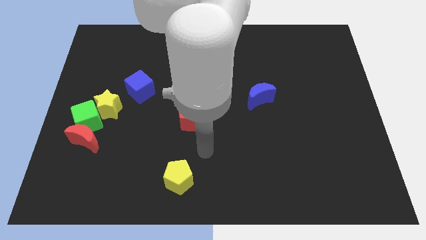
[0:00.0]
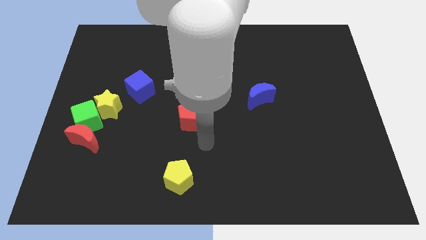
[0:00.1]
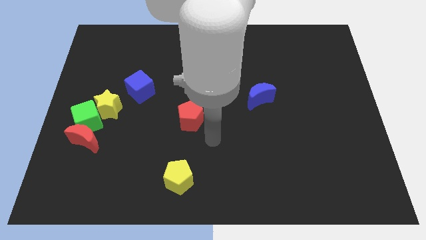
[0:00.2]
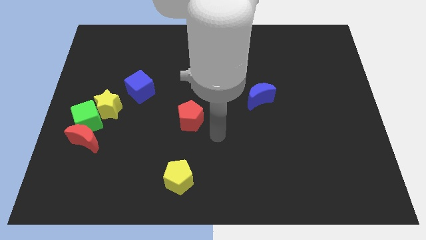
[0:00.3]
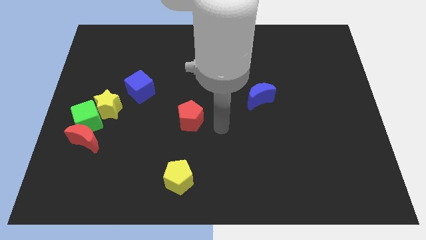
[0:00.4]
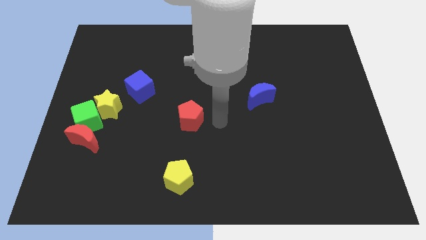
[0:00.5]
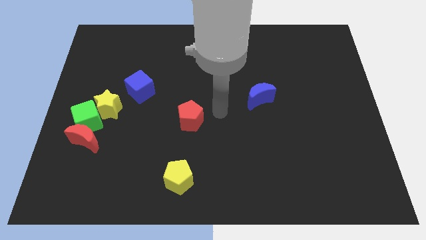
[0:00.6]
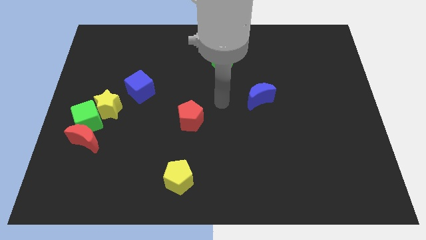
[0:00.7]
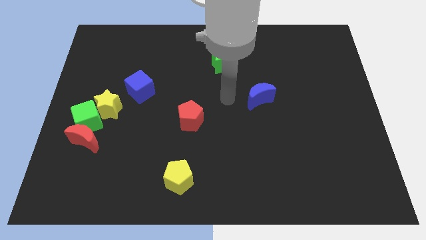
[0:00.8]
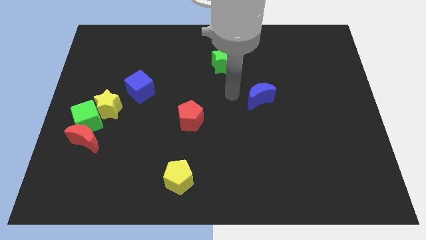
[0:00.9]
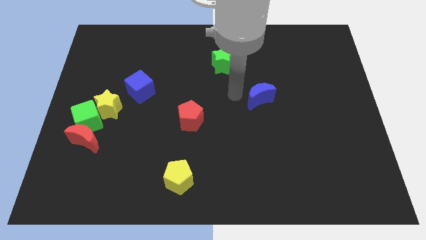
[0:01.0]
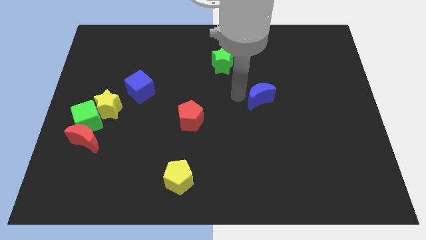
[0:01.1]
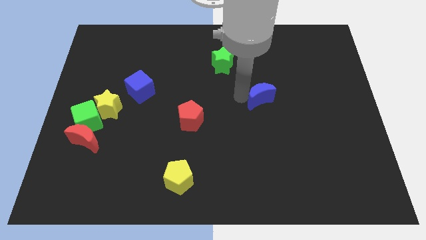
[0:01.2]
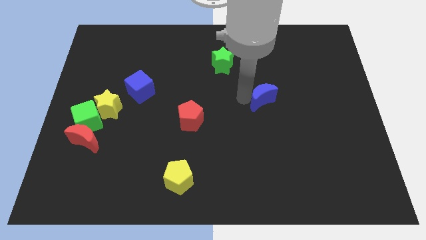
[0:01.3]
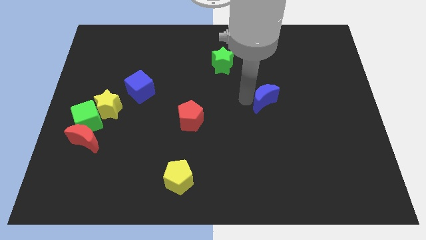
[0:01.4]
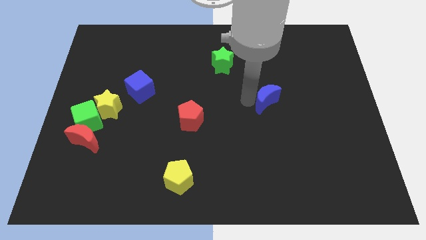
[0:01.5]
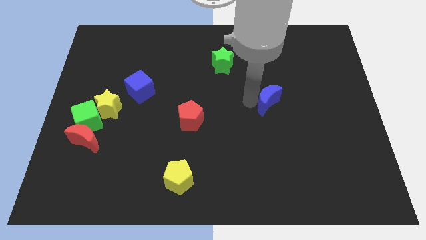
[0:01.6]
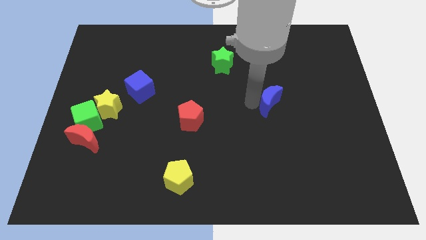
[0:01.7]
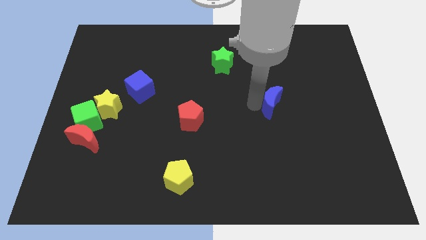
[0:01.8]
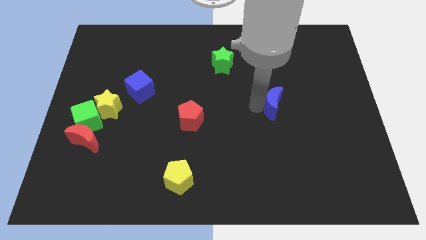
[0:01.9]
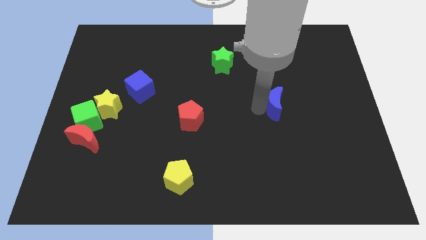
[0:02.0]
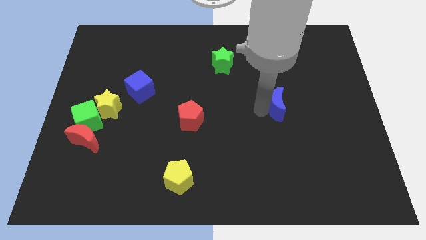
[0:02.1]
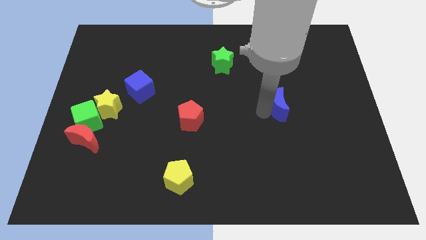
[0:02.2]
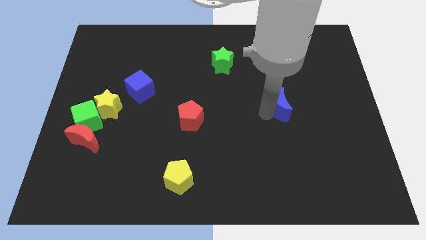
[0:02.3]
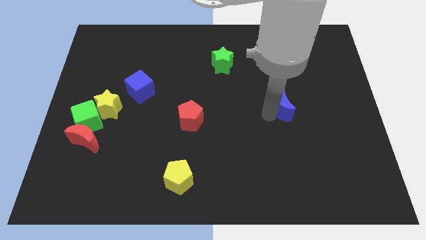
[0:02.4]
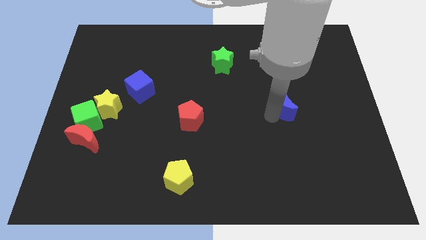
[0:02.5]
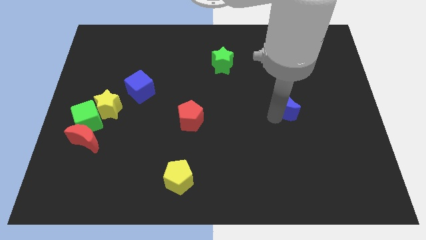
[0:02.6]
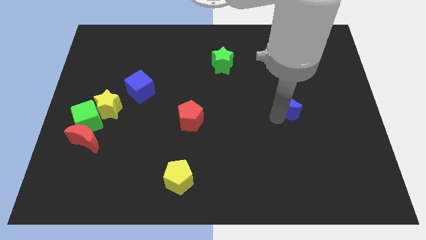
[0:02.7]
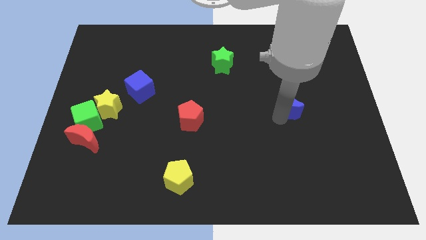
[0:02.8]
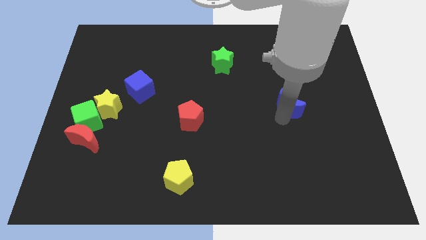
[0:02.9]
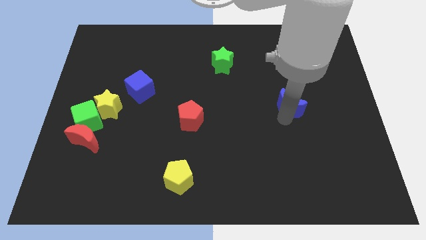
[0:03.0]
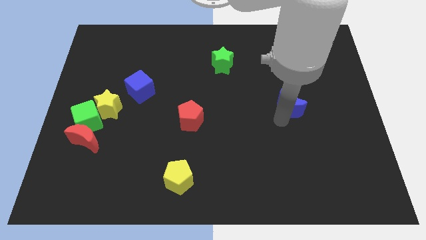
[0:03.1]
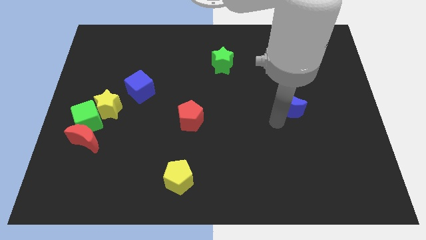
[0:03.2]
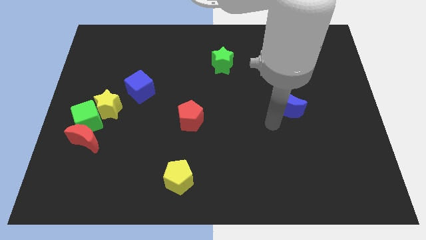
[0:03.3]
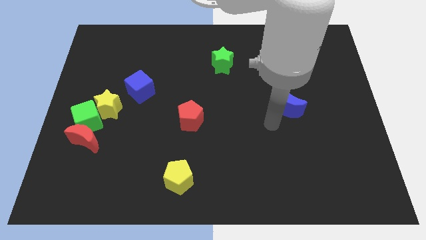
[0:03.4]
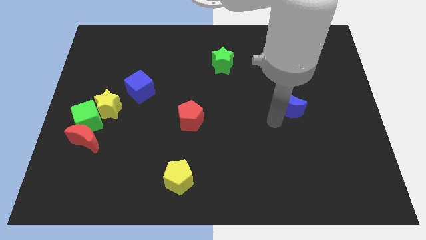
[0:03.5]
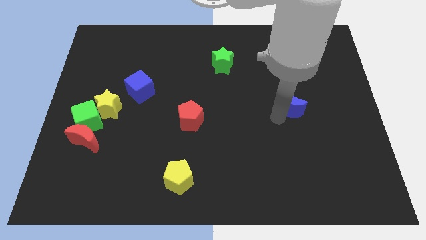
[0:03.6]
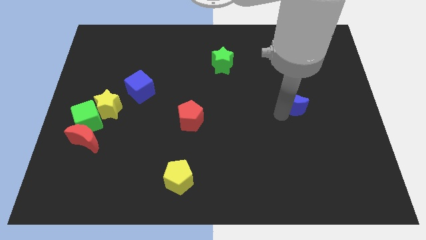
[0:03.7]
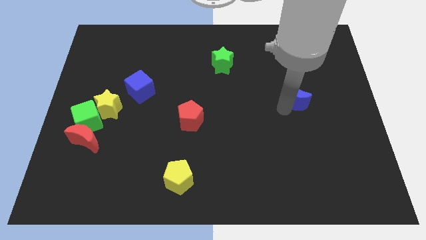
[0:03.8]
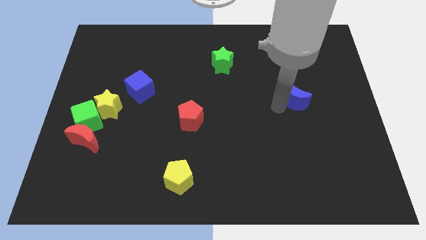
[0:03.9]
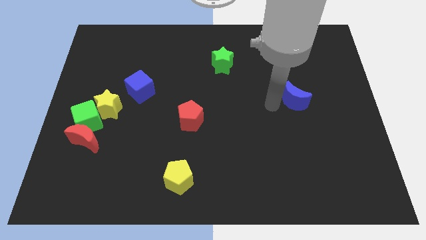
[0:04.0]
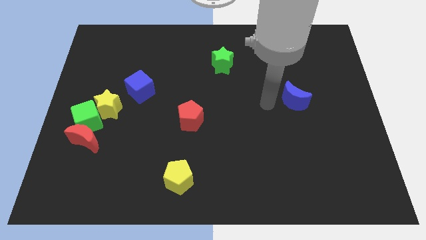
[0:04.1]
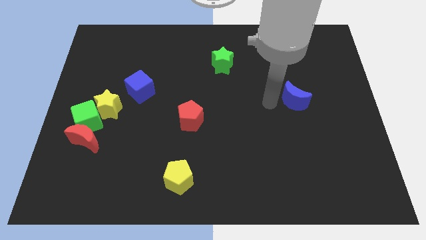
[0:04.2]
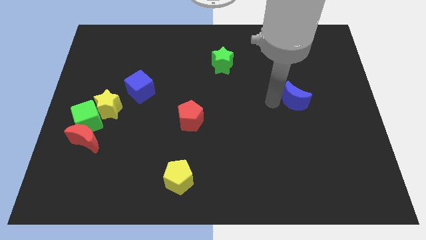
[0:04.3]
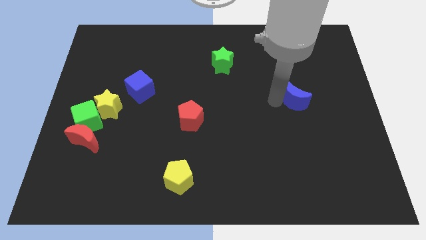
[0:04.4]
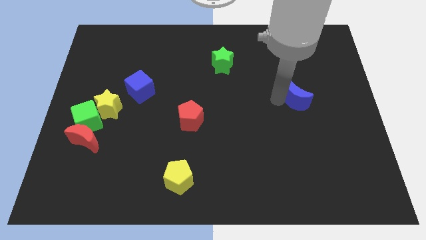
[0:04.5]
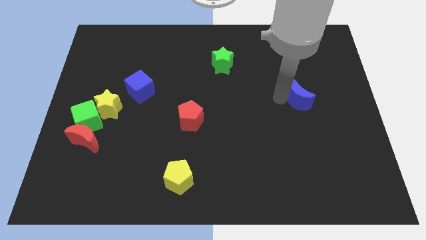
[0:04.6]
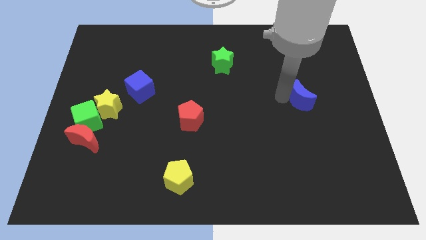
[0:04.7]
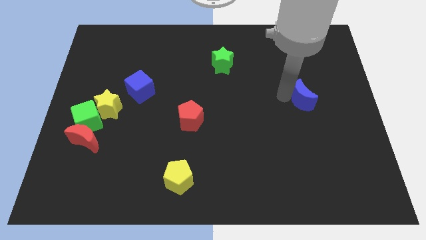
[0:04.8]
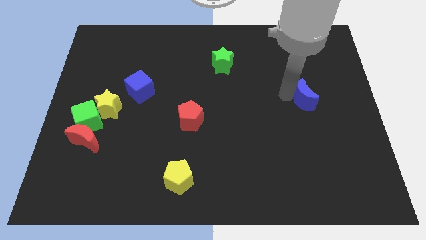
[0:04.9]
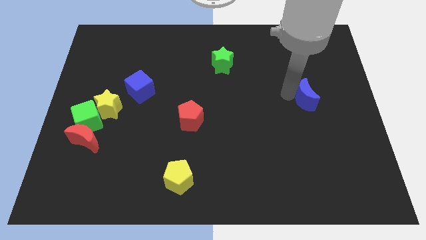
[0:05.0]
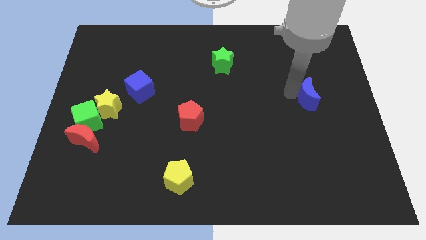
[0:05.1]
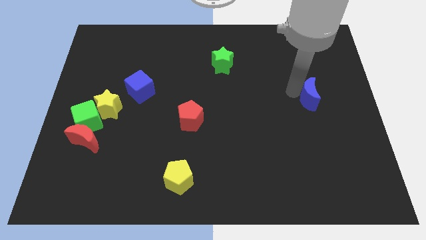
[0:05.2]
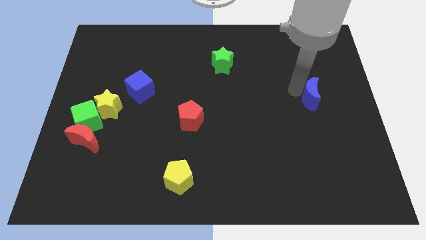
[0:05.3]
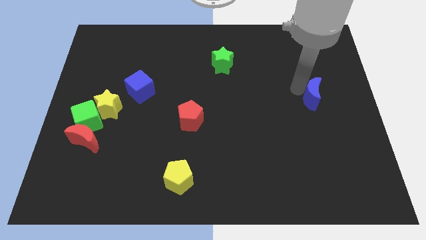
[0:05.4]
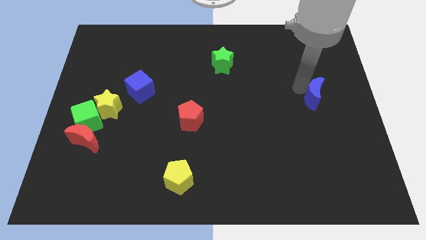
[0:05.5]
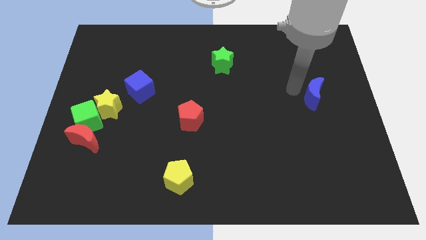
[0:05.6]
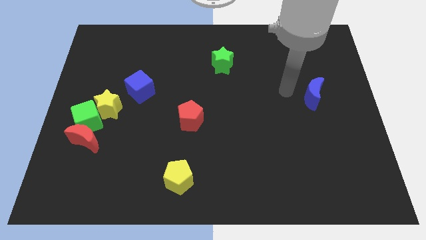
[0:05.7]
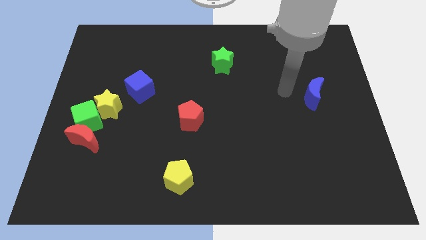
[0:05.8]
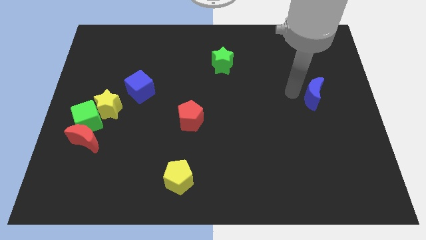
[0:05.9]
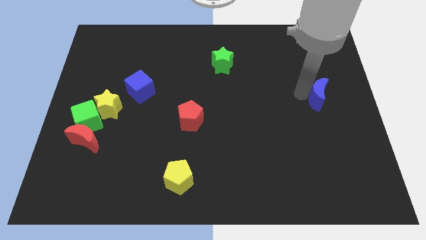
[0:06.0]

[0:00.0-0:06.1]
push the blue moon to the center right
